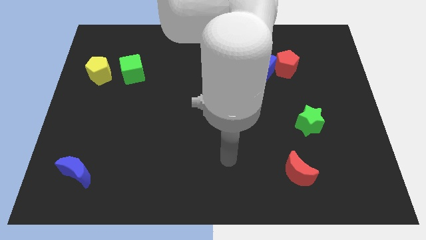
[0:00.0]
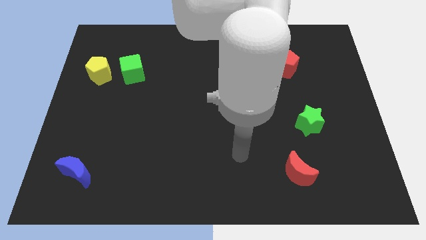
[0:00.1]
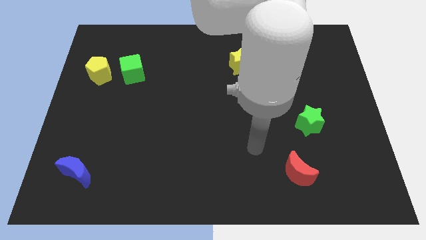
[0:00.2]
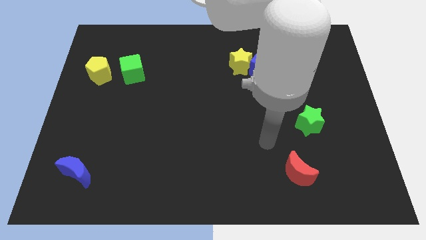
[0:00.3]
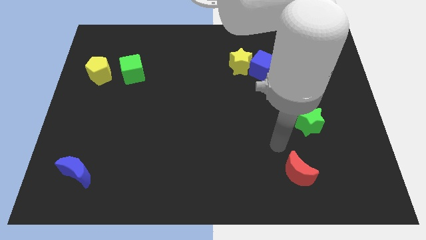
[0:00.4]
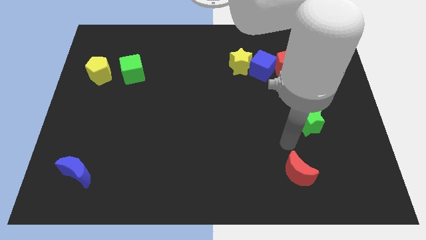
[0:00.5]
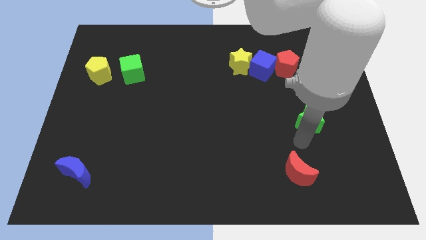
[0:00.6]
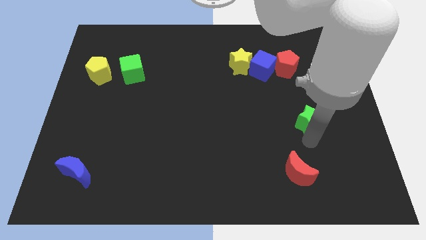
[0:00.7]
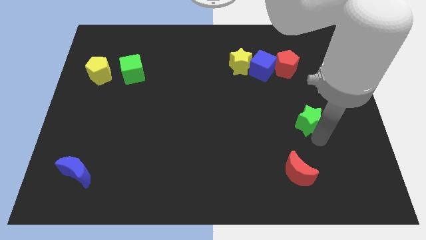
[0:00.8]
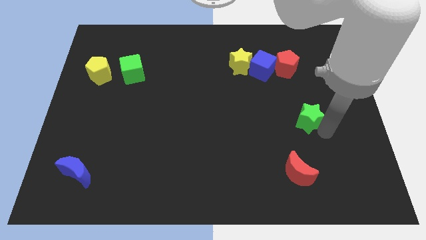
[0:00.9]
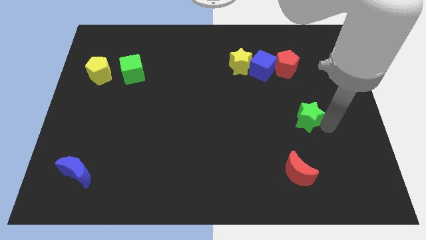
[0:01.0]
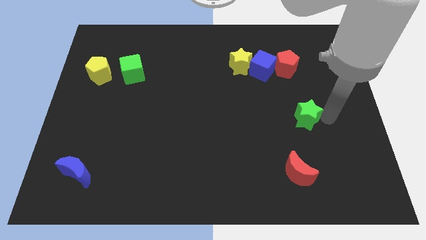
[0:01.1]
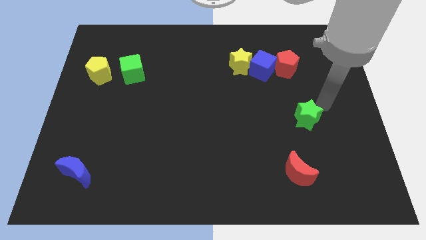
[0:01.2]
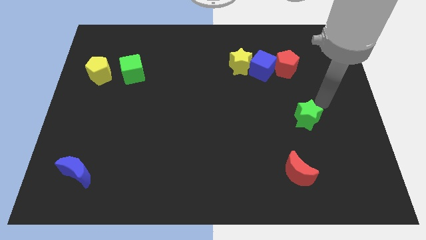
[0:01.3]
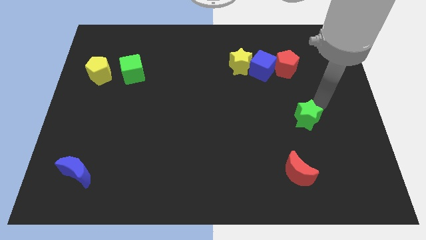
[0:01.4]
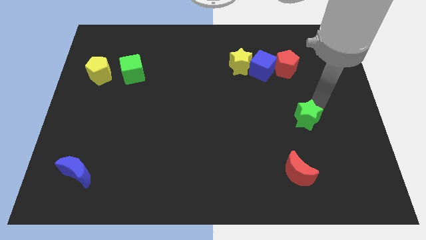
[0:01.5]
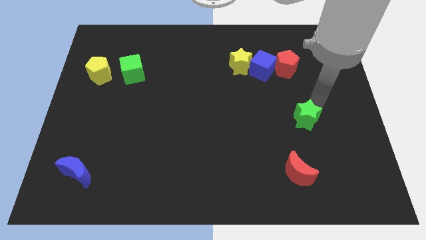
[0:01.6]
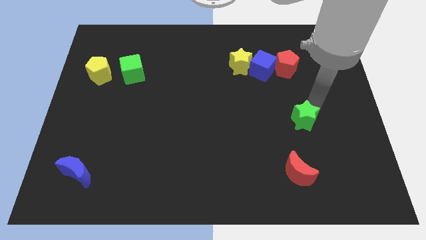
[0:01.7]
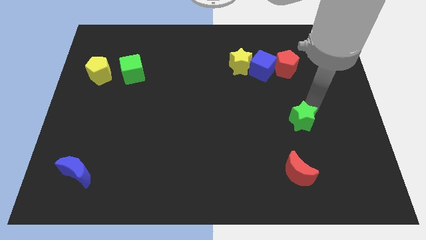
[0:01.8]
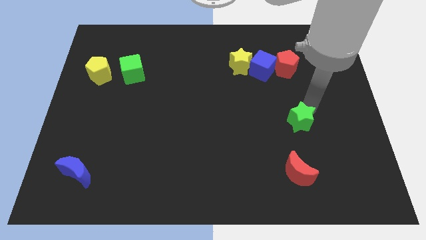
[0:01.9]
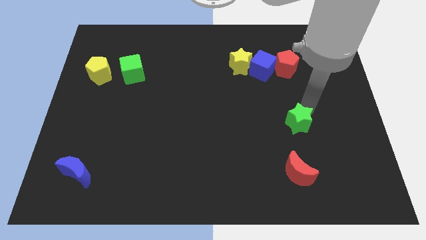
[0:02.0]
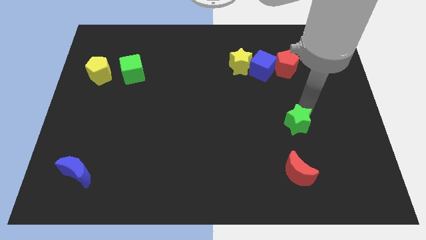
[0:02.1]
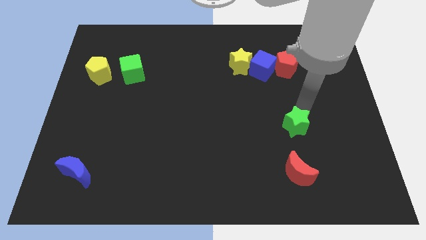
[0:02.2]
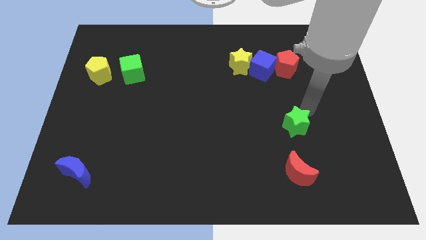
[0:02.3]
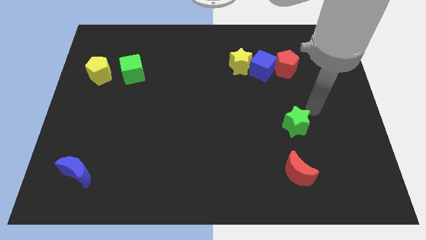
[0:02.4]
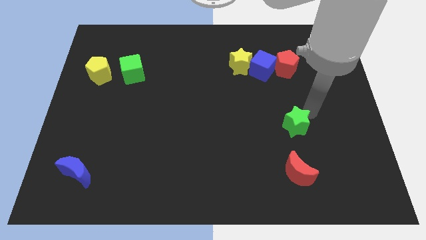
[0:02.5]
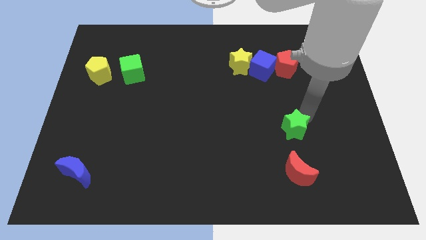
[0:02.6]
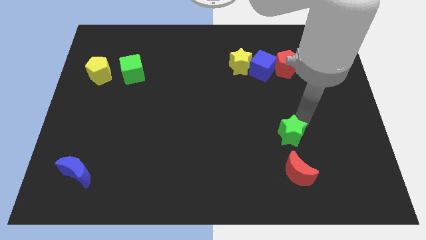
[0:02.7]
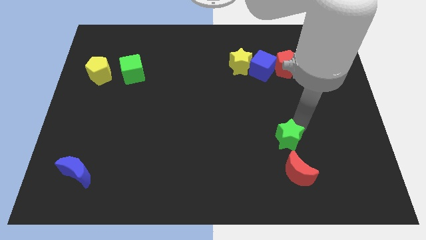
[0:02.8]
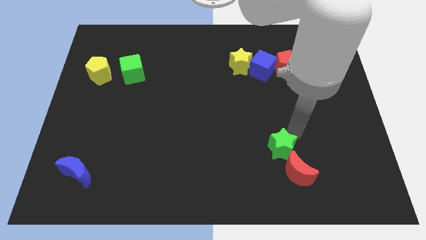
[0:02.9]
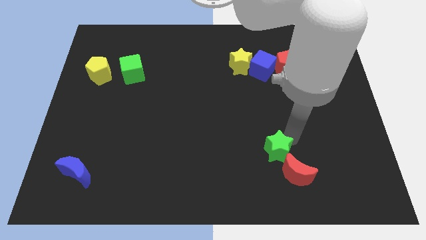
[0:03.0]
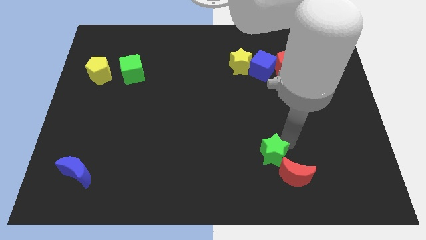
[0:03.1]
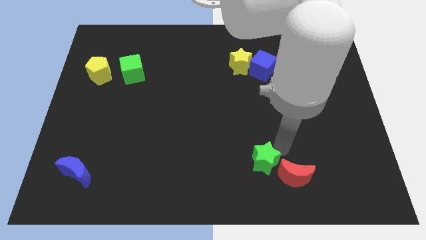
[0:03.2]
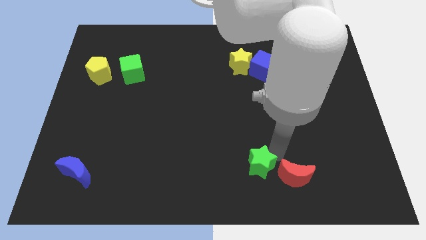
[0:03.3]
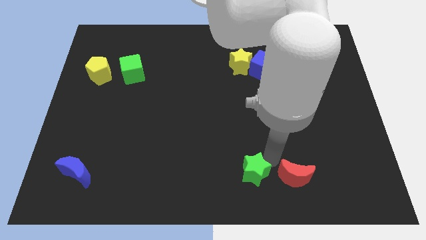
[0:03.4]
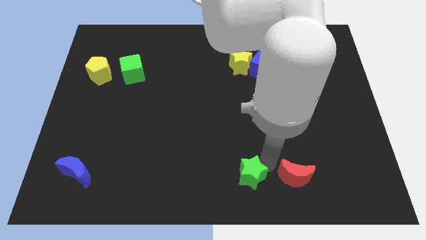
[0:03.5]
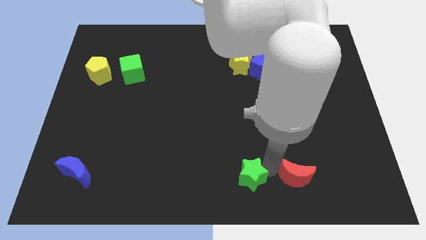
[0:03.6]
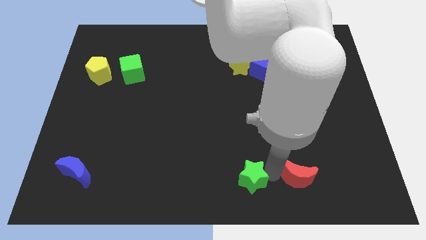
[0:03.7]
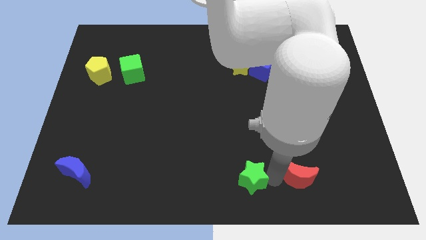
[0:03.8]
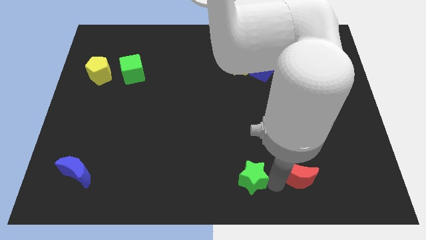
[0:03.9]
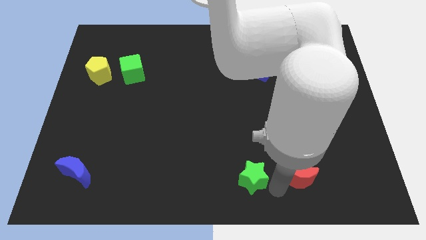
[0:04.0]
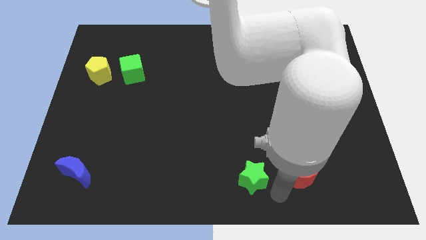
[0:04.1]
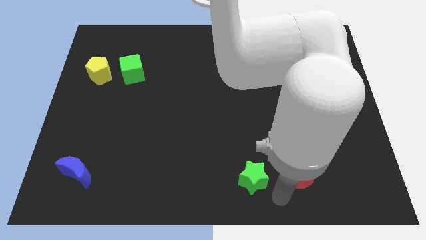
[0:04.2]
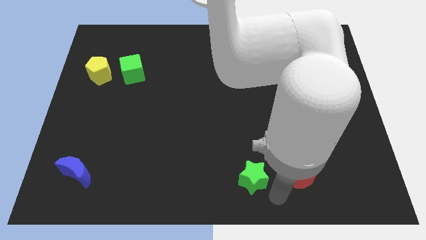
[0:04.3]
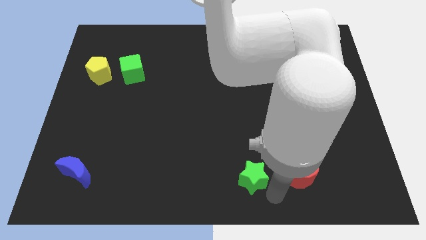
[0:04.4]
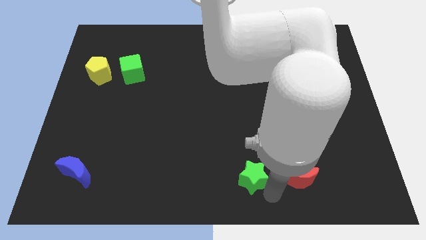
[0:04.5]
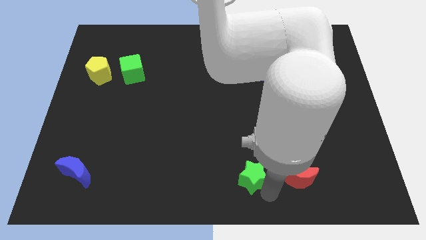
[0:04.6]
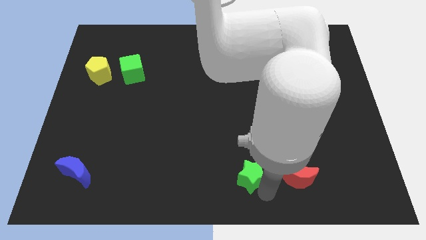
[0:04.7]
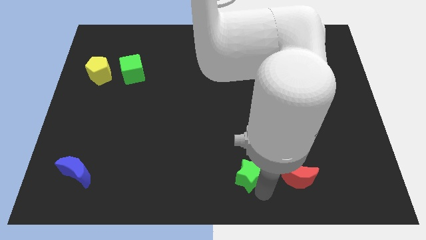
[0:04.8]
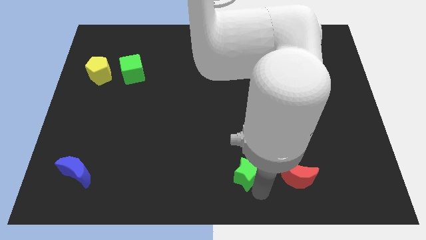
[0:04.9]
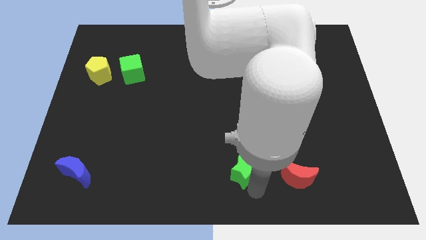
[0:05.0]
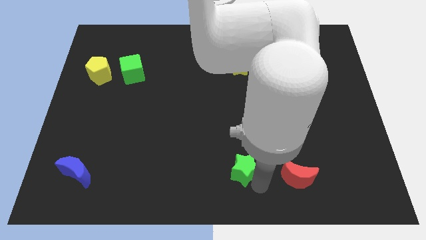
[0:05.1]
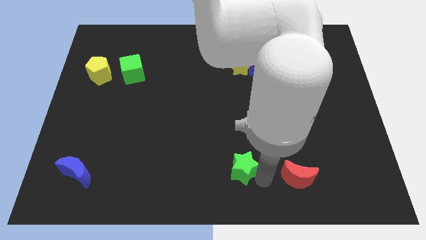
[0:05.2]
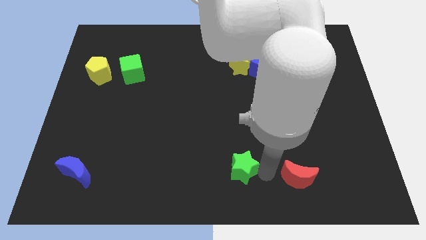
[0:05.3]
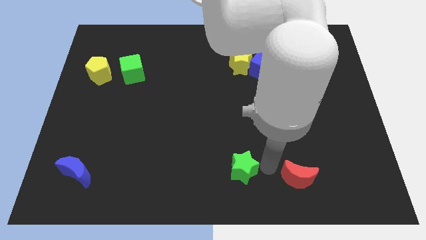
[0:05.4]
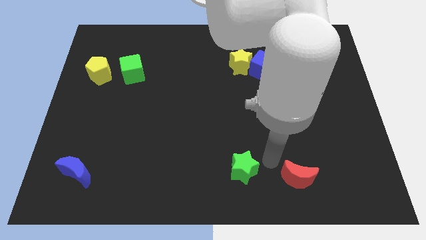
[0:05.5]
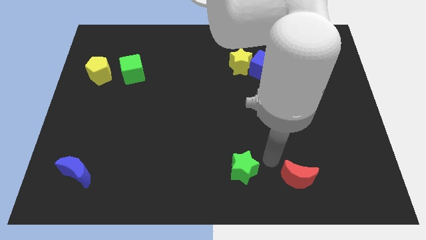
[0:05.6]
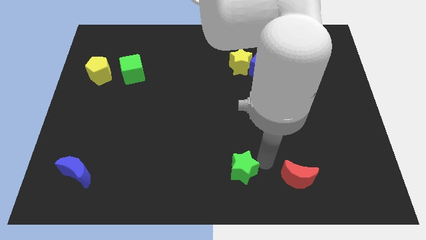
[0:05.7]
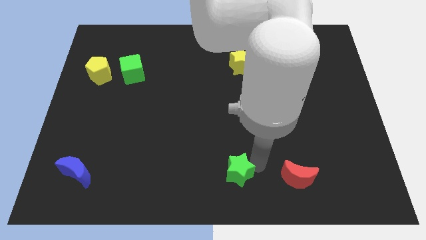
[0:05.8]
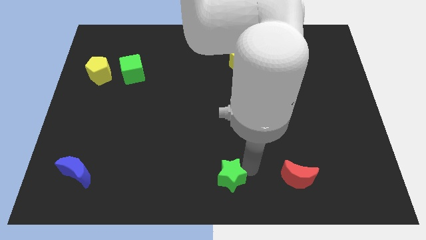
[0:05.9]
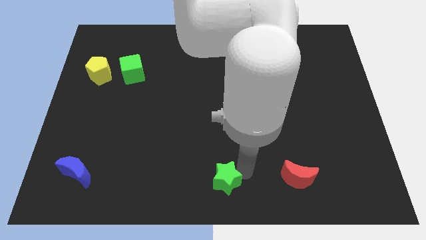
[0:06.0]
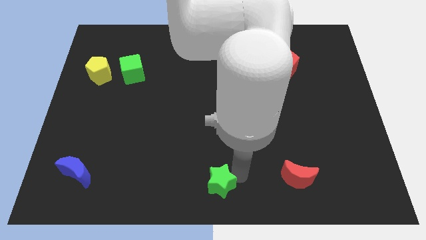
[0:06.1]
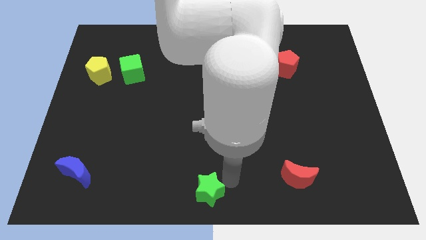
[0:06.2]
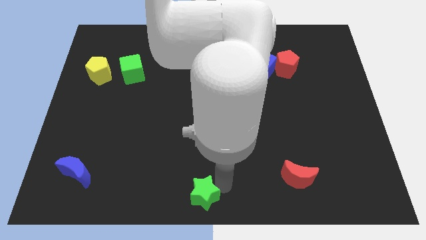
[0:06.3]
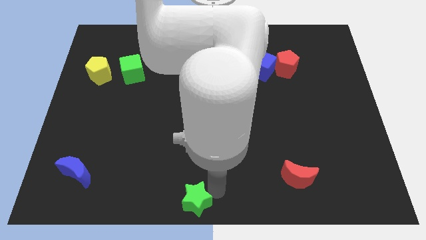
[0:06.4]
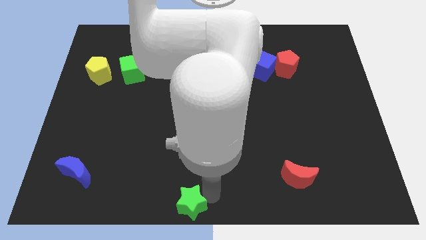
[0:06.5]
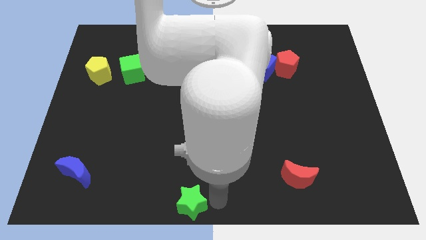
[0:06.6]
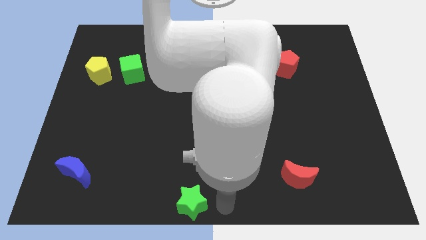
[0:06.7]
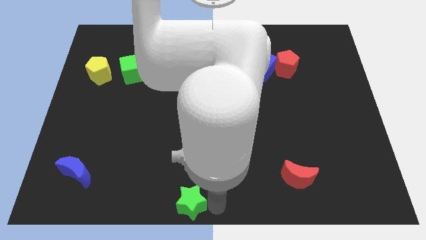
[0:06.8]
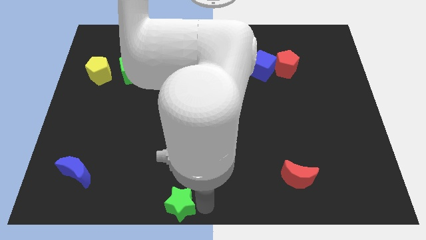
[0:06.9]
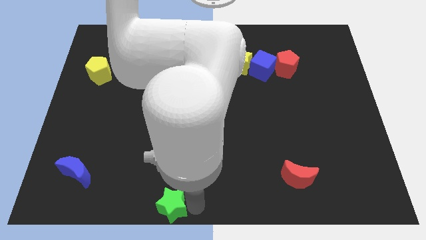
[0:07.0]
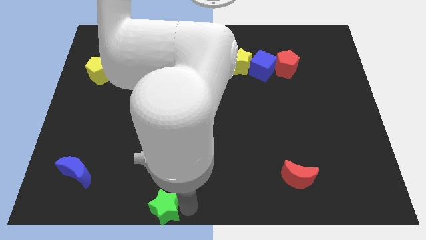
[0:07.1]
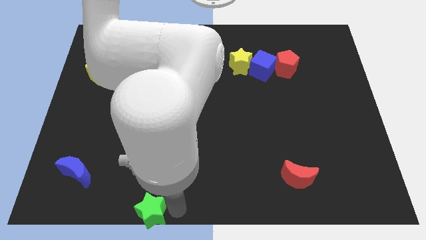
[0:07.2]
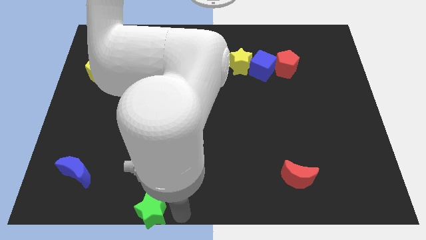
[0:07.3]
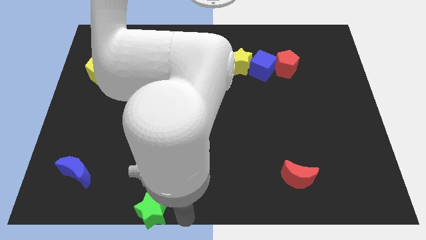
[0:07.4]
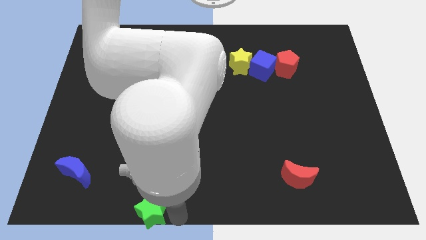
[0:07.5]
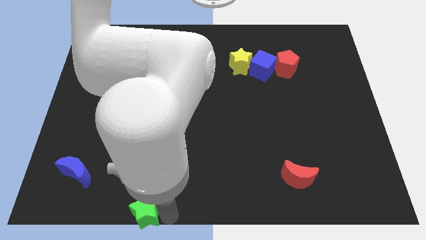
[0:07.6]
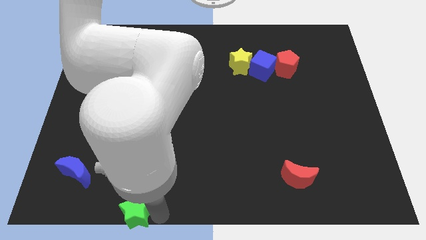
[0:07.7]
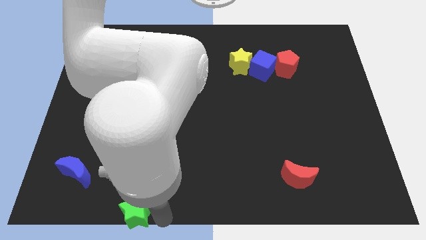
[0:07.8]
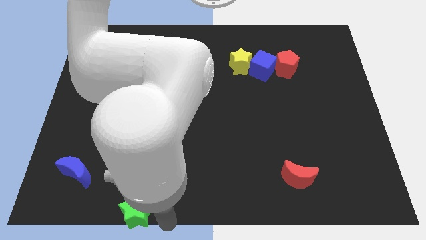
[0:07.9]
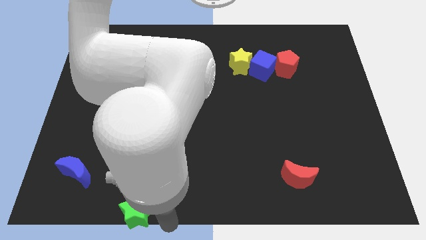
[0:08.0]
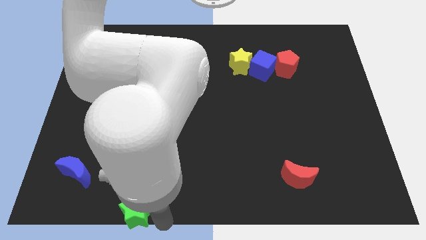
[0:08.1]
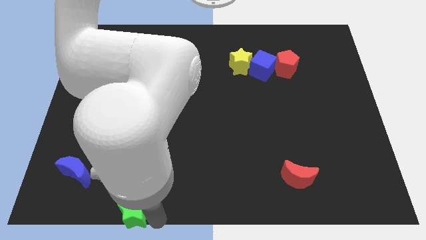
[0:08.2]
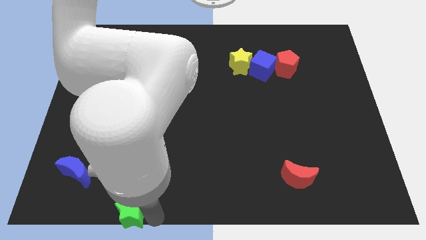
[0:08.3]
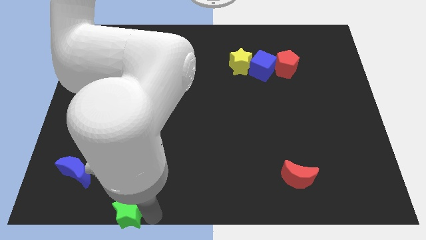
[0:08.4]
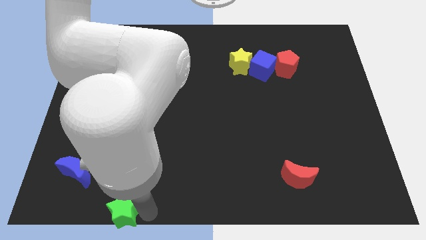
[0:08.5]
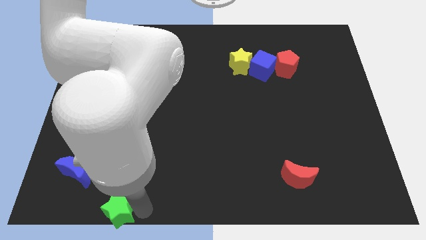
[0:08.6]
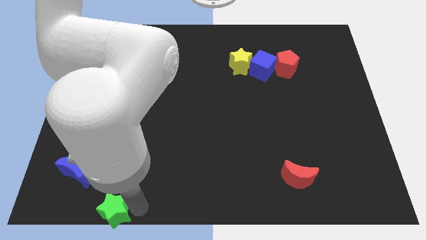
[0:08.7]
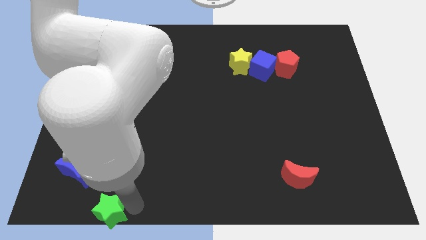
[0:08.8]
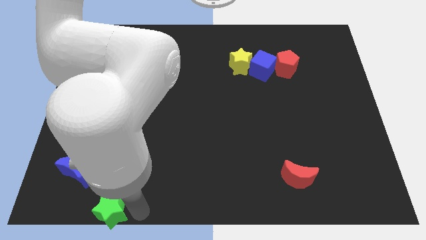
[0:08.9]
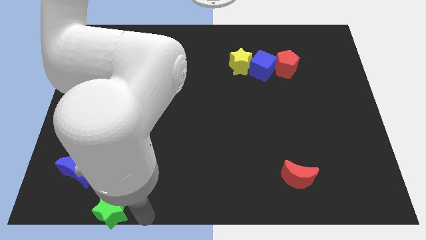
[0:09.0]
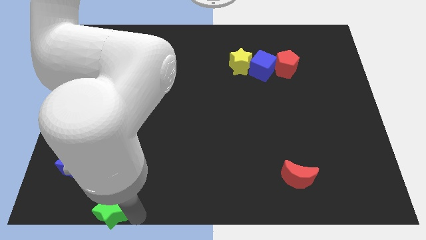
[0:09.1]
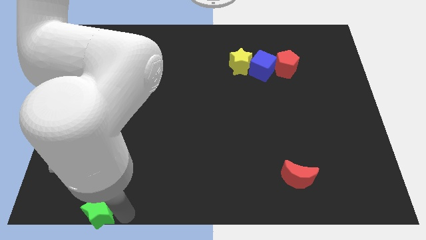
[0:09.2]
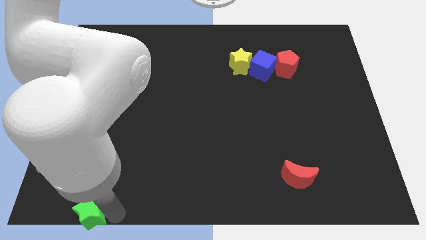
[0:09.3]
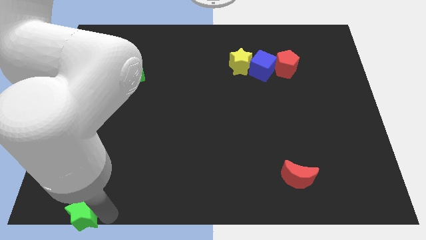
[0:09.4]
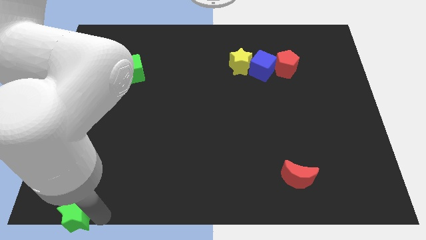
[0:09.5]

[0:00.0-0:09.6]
push the green star to the bottom left corner
